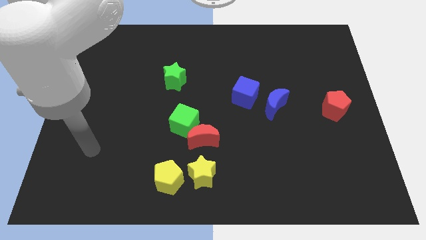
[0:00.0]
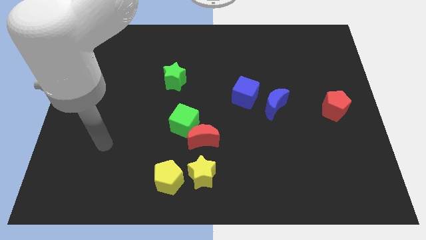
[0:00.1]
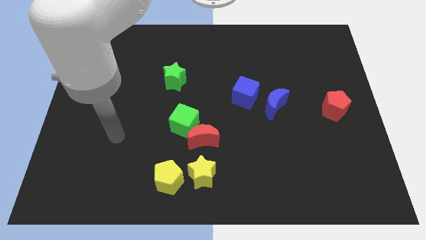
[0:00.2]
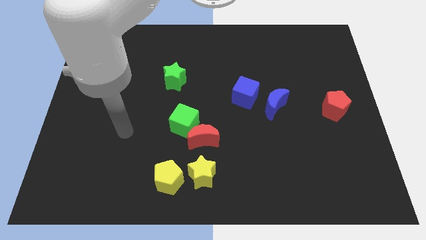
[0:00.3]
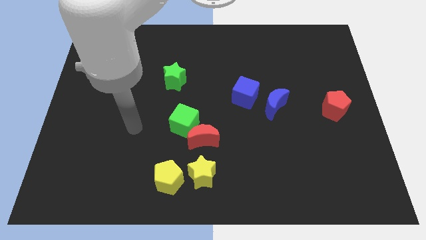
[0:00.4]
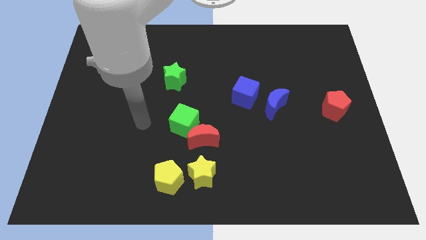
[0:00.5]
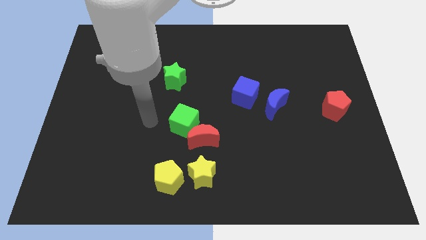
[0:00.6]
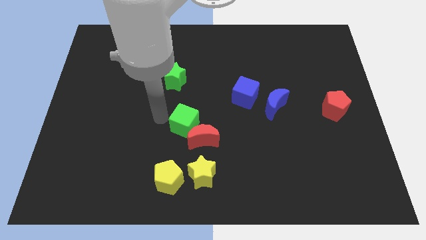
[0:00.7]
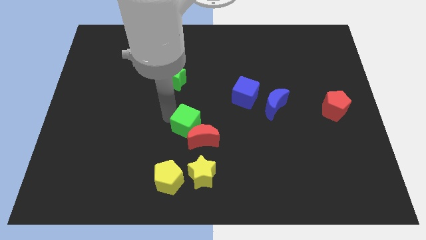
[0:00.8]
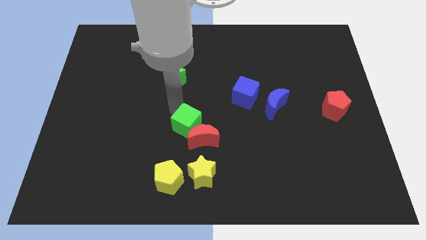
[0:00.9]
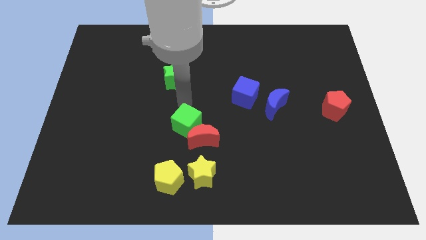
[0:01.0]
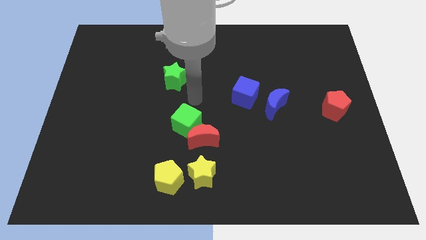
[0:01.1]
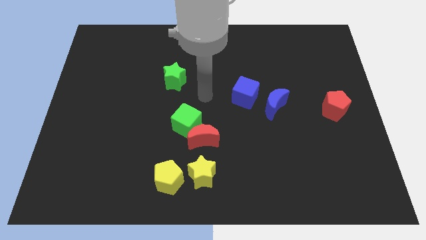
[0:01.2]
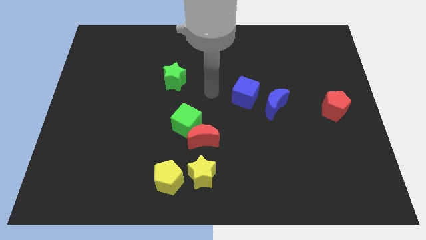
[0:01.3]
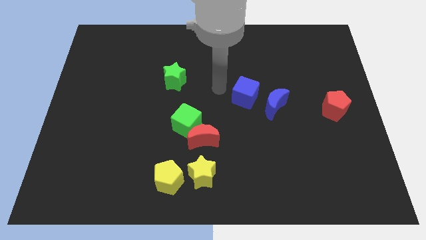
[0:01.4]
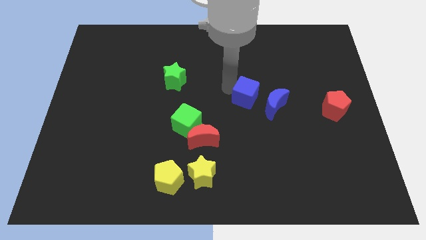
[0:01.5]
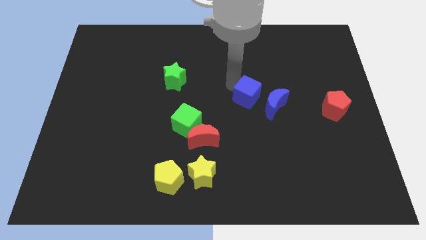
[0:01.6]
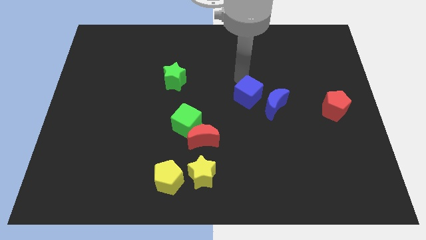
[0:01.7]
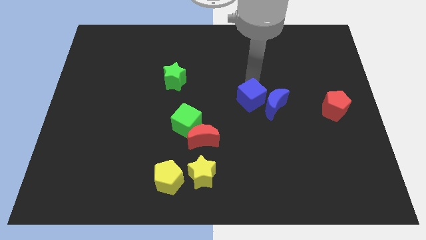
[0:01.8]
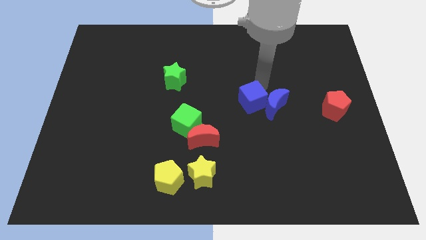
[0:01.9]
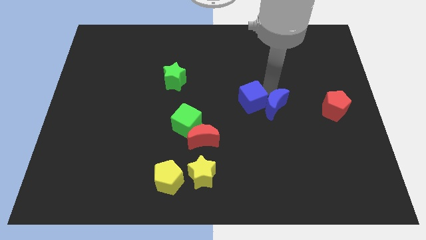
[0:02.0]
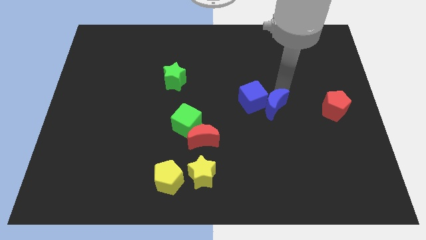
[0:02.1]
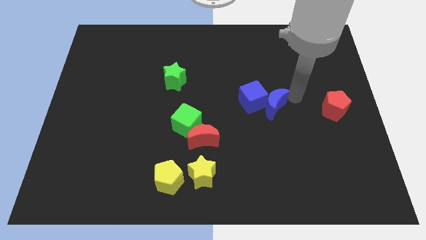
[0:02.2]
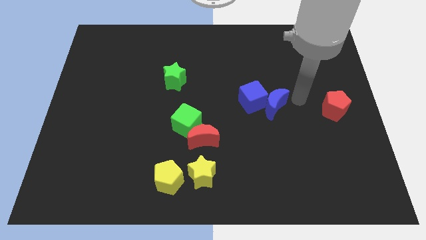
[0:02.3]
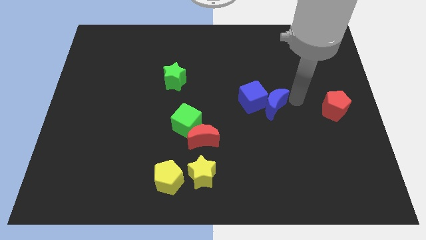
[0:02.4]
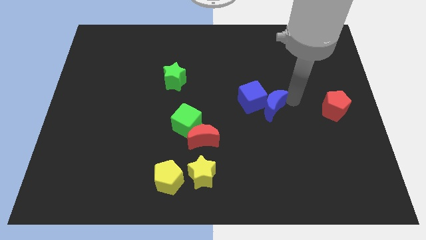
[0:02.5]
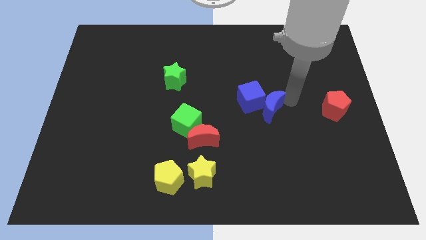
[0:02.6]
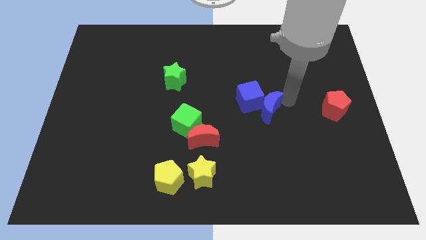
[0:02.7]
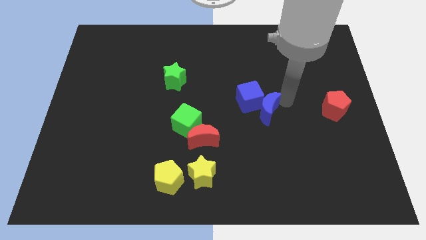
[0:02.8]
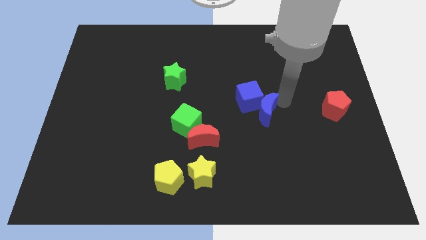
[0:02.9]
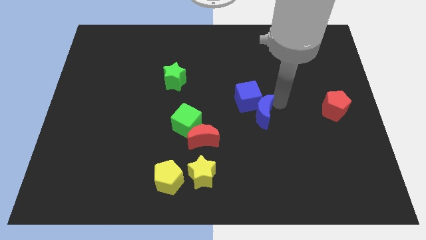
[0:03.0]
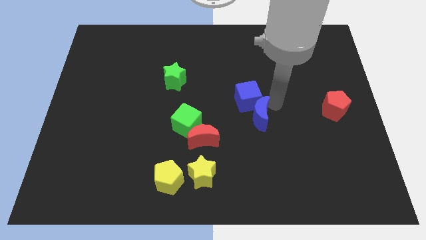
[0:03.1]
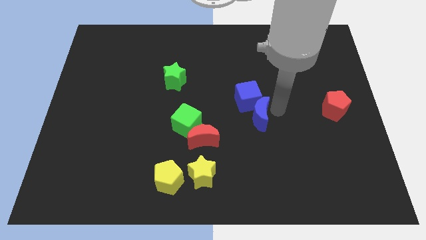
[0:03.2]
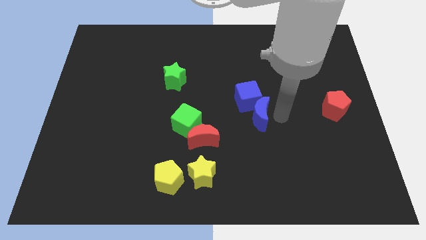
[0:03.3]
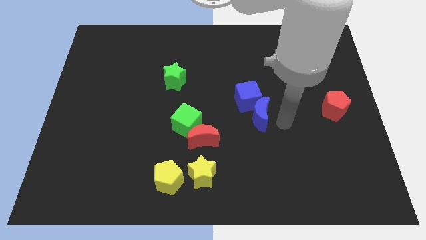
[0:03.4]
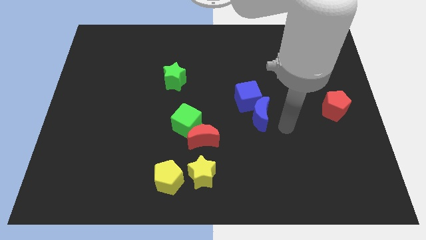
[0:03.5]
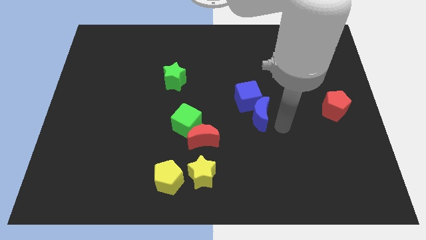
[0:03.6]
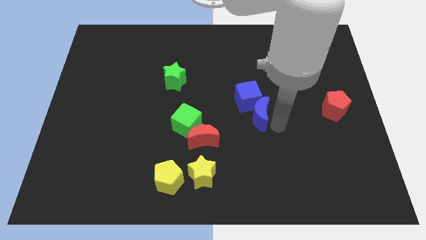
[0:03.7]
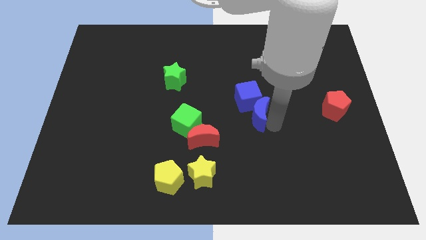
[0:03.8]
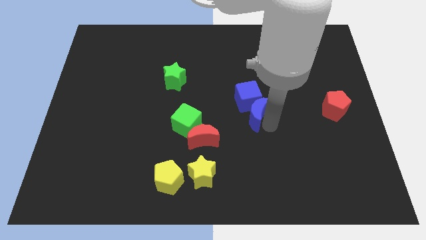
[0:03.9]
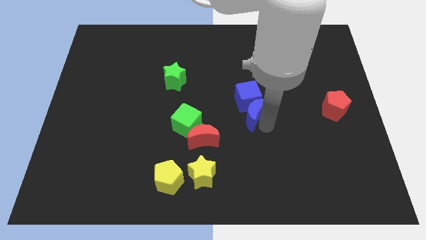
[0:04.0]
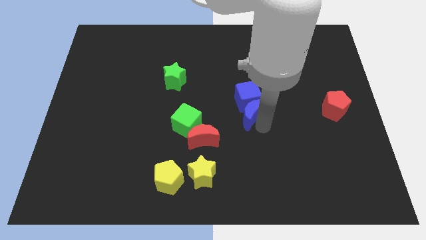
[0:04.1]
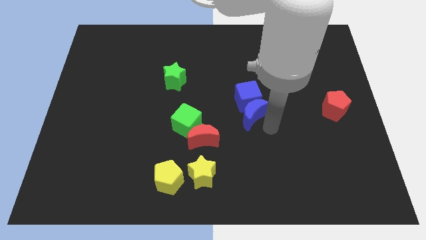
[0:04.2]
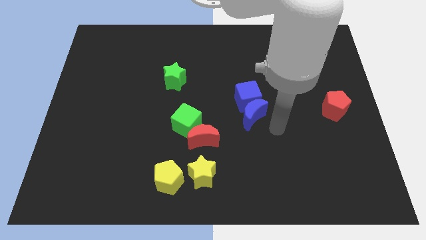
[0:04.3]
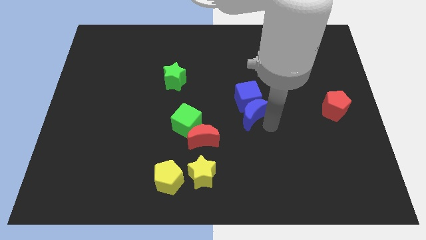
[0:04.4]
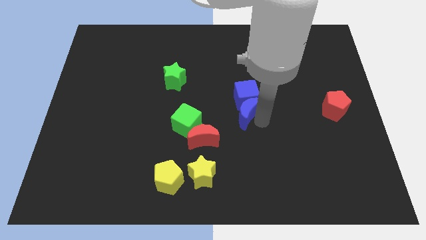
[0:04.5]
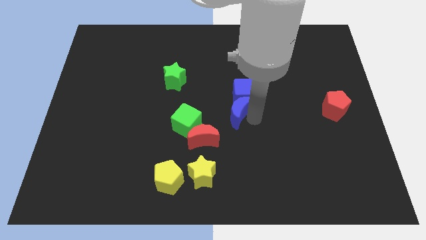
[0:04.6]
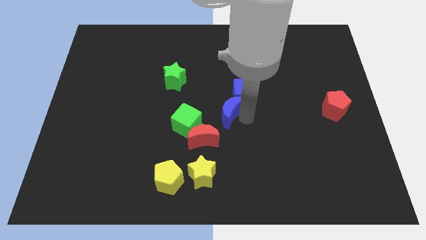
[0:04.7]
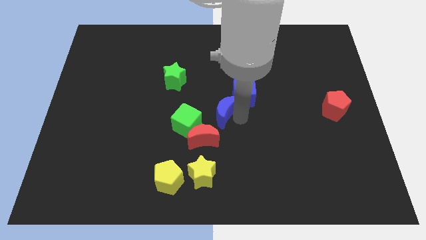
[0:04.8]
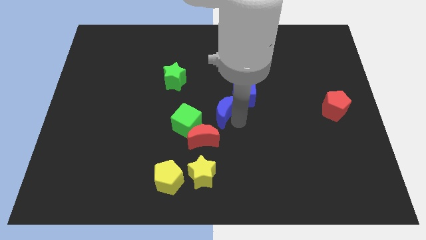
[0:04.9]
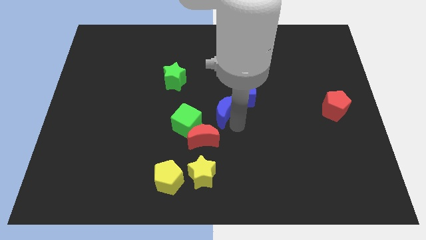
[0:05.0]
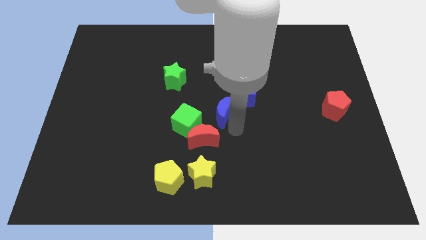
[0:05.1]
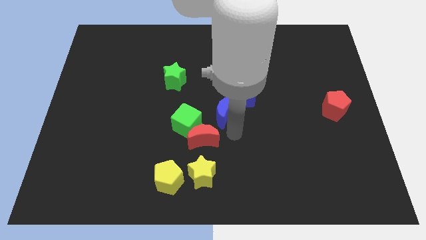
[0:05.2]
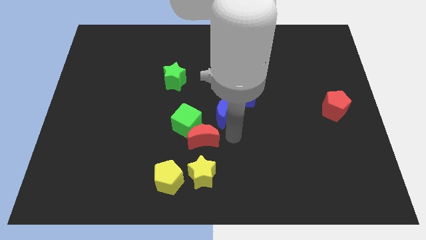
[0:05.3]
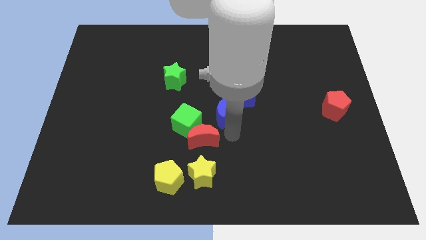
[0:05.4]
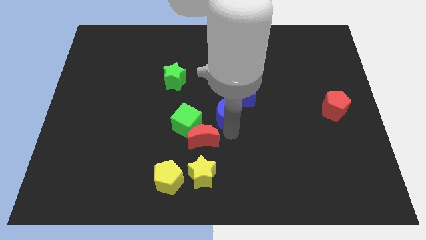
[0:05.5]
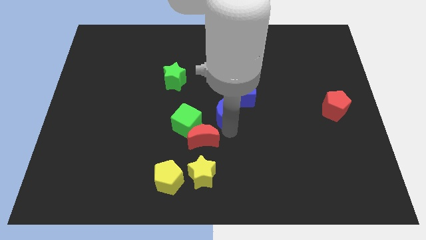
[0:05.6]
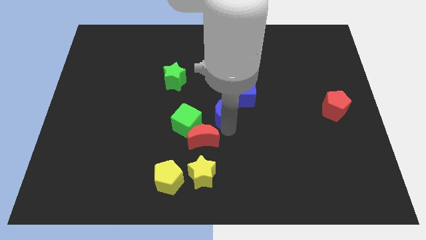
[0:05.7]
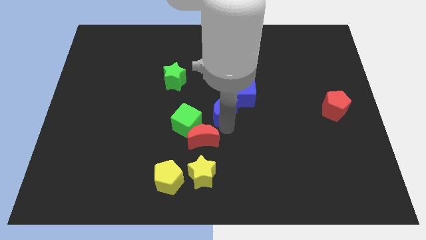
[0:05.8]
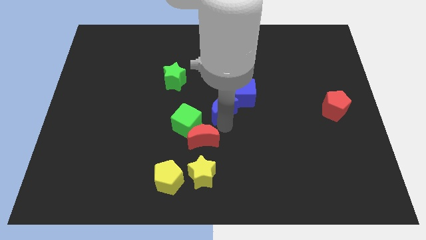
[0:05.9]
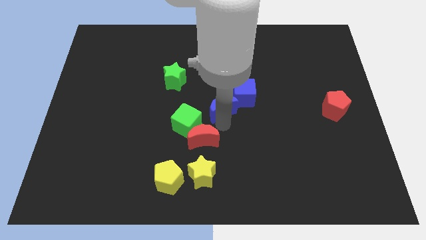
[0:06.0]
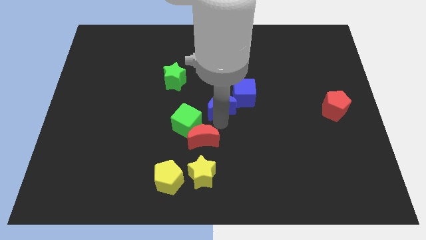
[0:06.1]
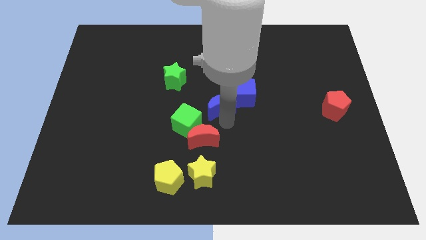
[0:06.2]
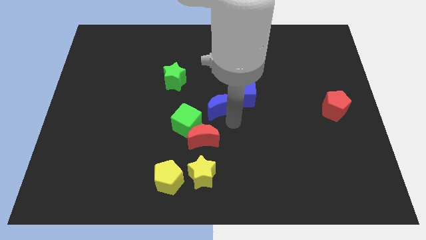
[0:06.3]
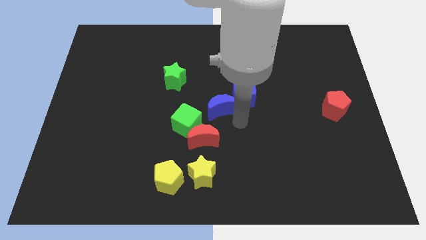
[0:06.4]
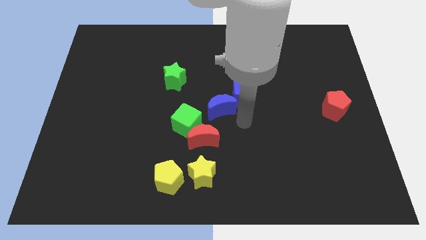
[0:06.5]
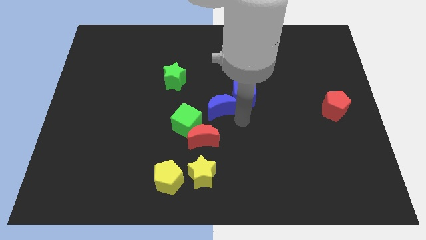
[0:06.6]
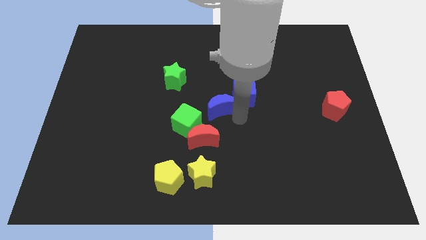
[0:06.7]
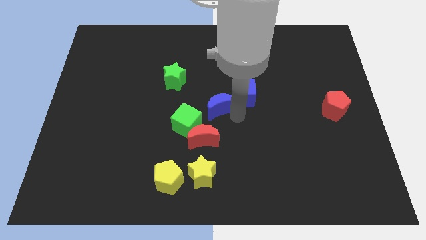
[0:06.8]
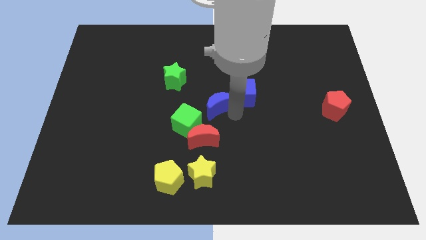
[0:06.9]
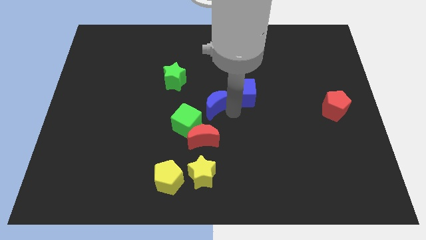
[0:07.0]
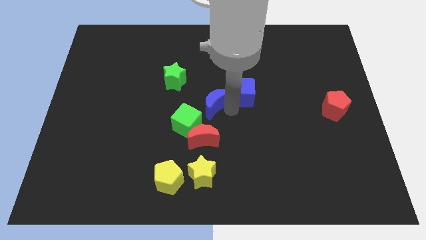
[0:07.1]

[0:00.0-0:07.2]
put the blue moon to the bottom right side of the green star
